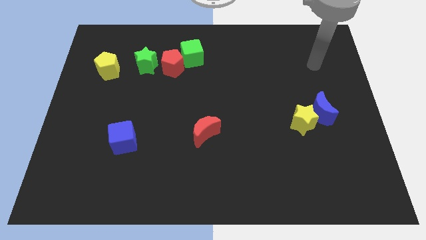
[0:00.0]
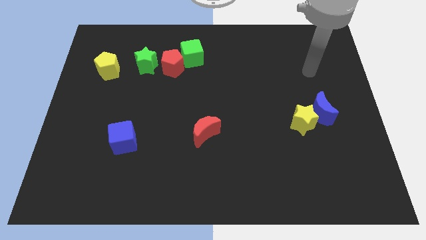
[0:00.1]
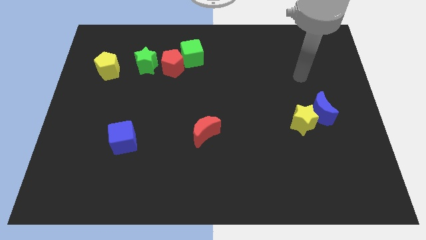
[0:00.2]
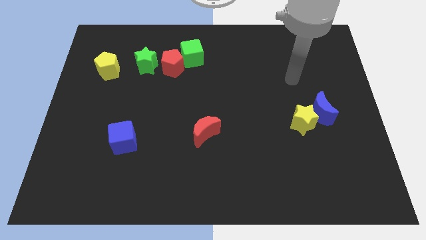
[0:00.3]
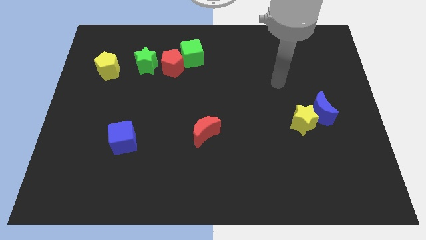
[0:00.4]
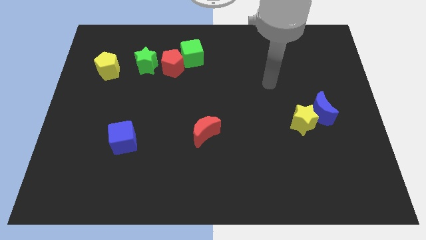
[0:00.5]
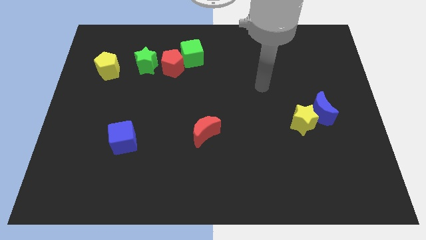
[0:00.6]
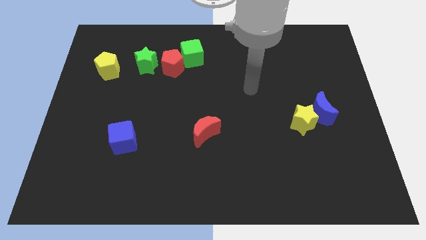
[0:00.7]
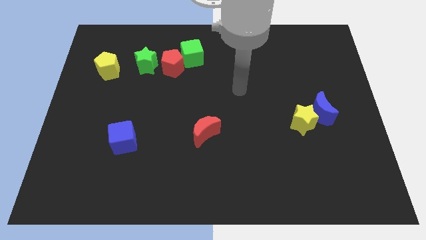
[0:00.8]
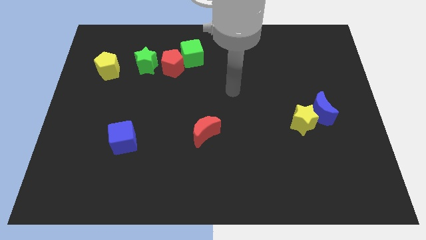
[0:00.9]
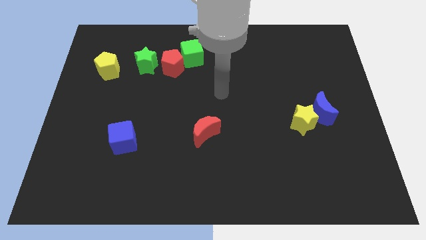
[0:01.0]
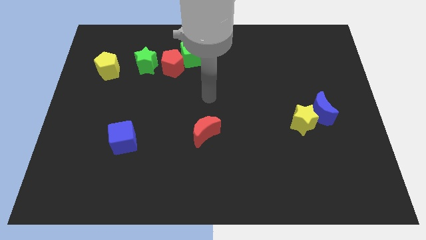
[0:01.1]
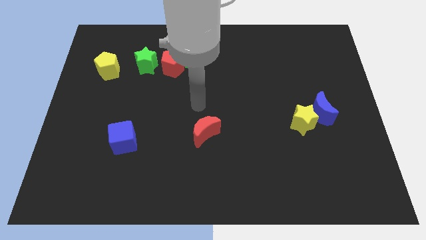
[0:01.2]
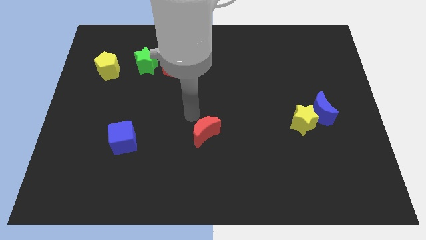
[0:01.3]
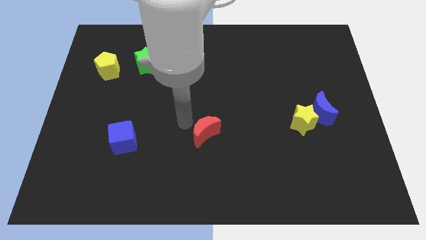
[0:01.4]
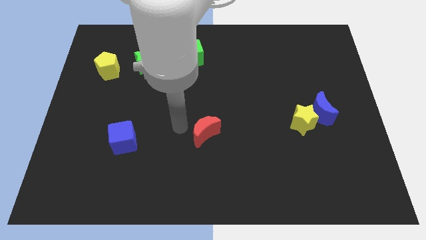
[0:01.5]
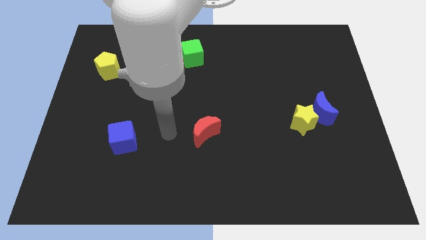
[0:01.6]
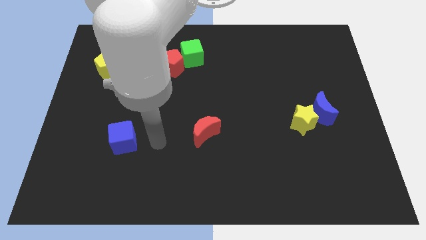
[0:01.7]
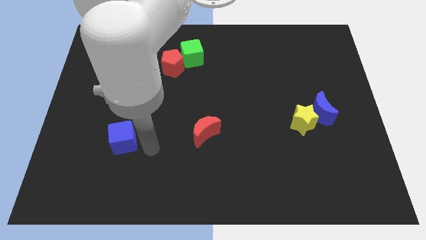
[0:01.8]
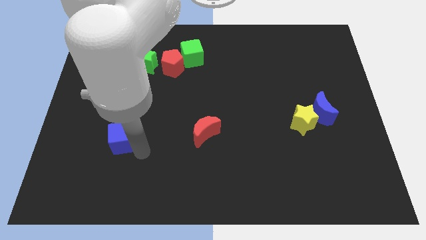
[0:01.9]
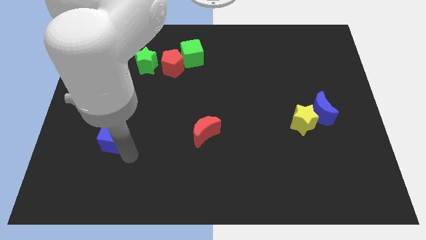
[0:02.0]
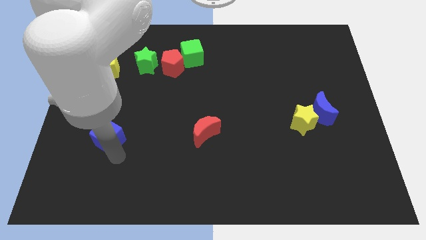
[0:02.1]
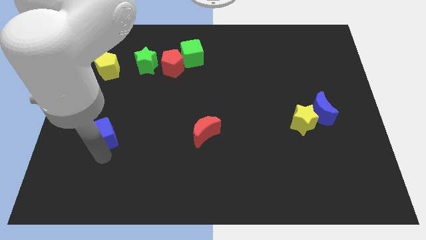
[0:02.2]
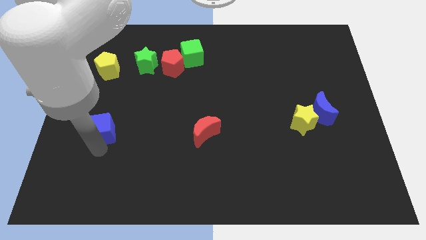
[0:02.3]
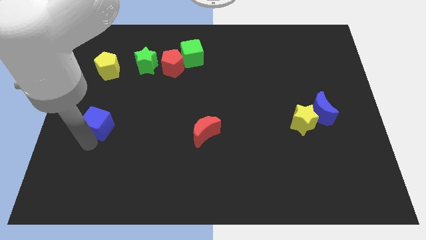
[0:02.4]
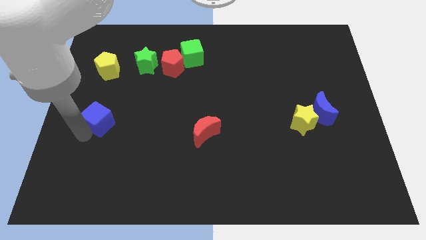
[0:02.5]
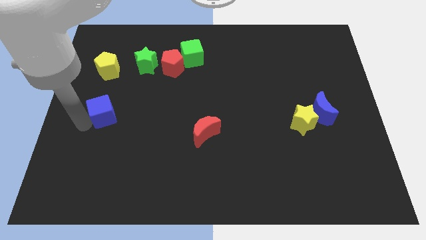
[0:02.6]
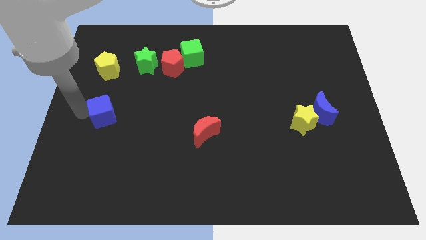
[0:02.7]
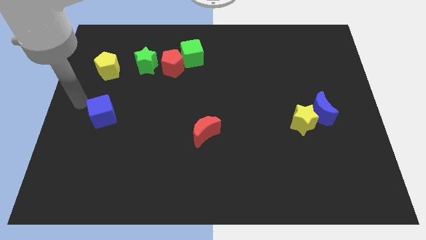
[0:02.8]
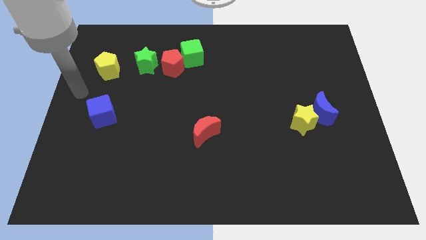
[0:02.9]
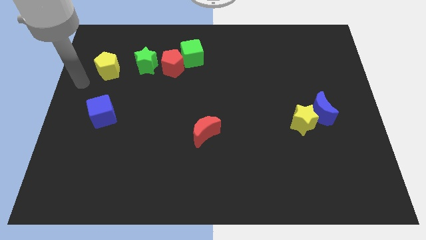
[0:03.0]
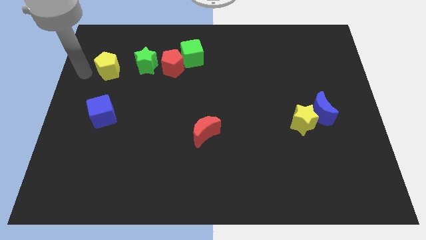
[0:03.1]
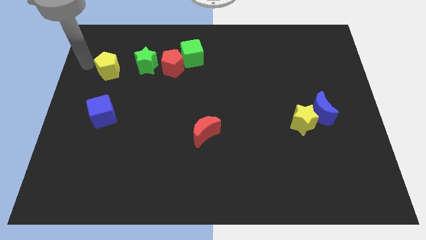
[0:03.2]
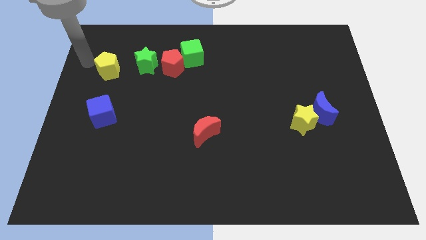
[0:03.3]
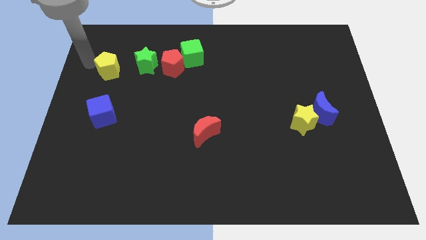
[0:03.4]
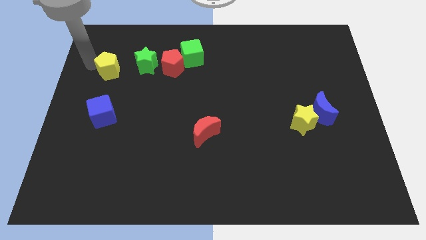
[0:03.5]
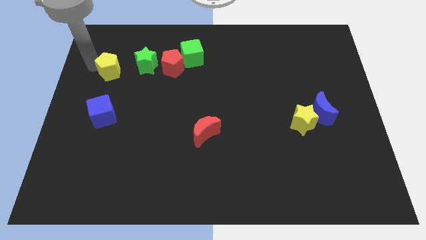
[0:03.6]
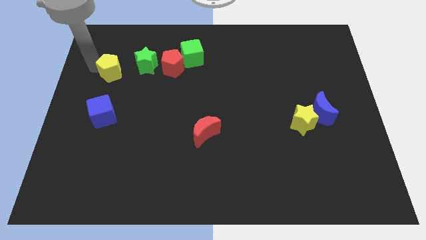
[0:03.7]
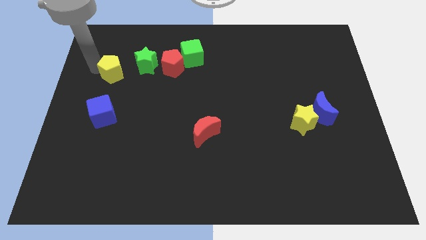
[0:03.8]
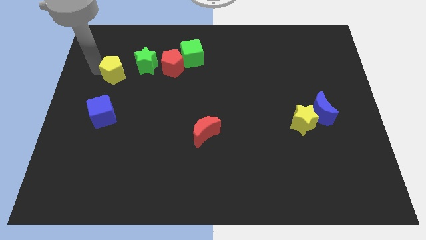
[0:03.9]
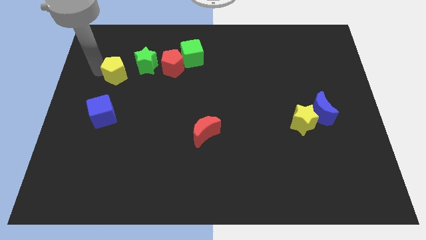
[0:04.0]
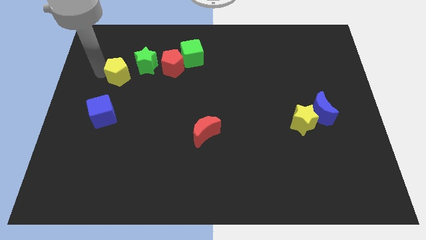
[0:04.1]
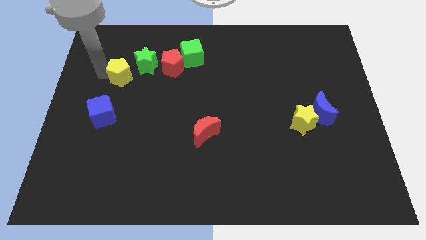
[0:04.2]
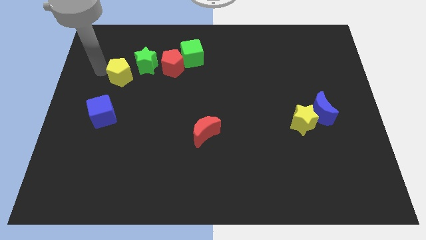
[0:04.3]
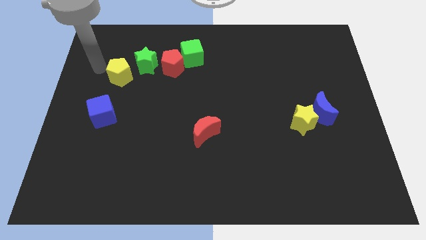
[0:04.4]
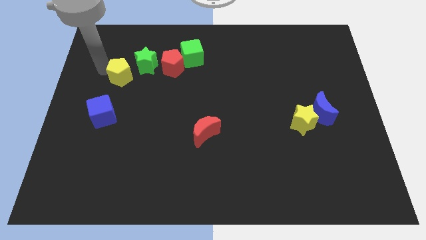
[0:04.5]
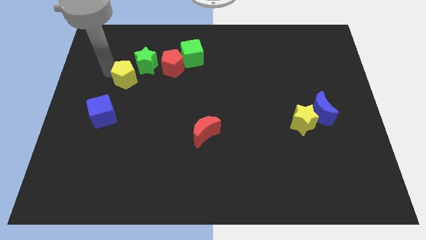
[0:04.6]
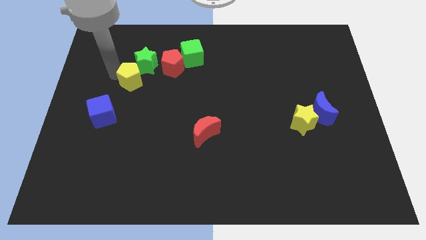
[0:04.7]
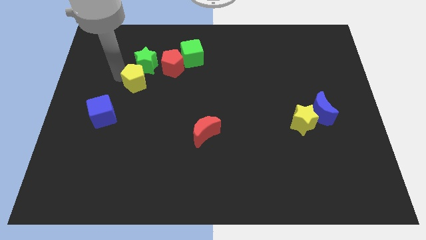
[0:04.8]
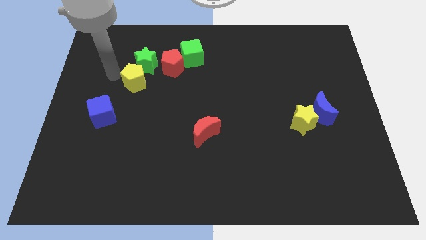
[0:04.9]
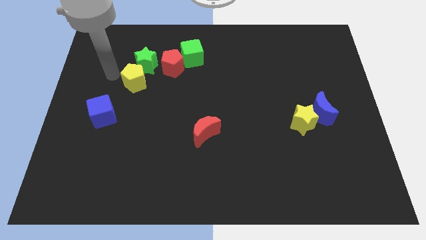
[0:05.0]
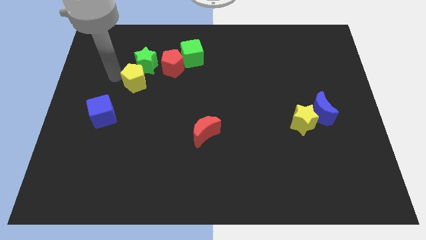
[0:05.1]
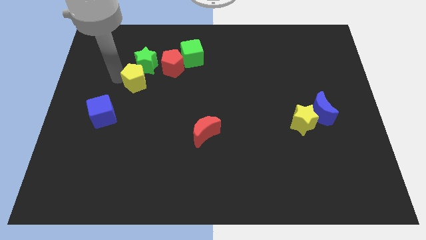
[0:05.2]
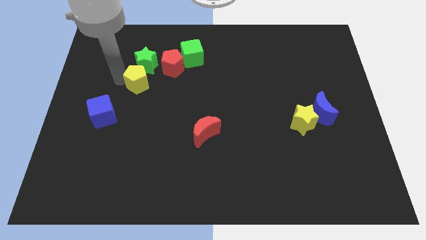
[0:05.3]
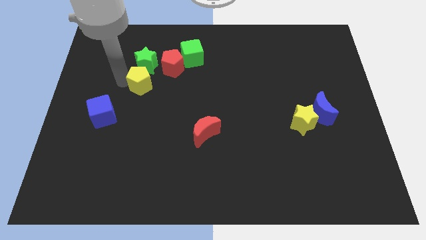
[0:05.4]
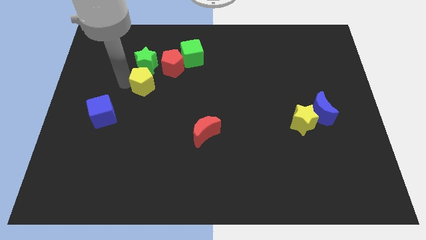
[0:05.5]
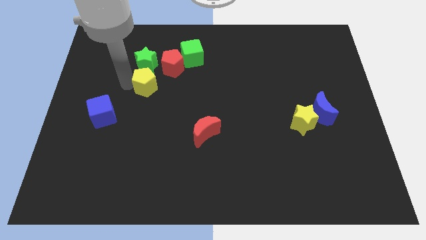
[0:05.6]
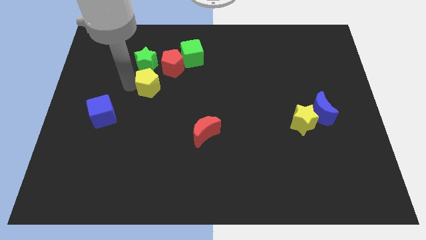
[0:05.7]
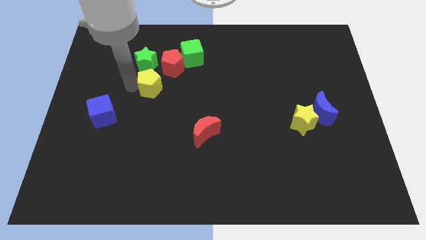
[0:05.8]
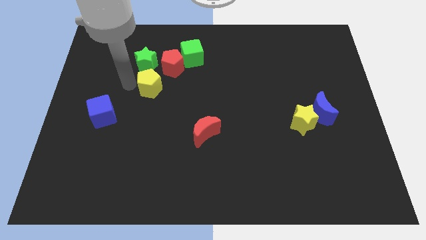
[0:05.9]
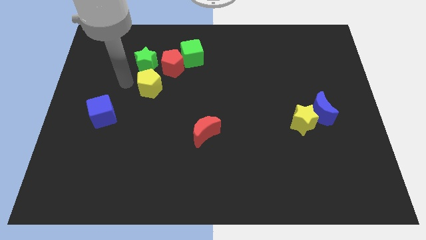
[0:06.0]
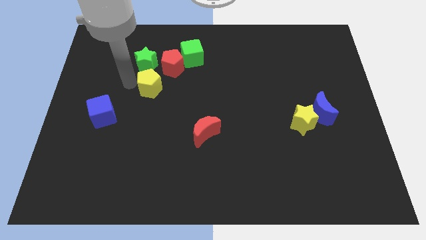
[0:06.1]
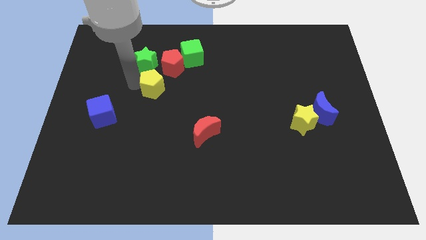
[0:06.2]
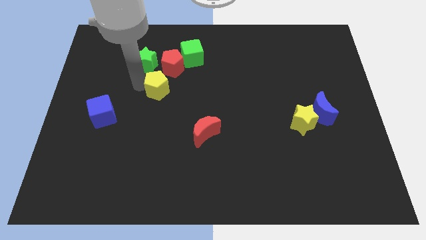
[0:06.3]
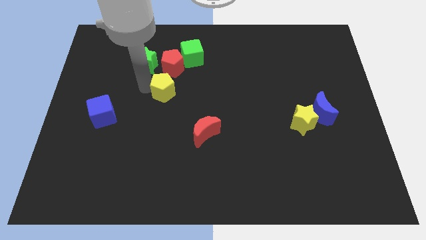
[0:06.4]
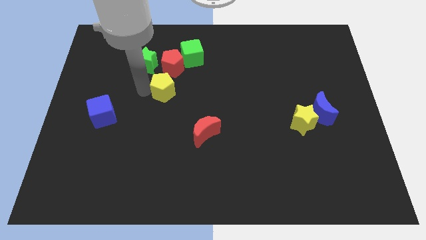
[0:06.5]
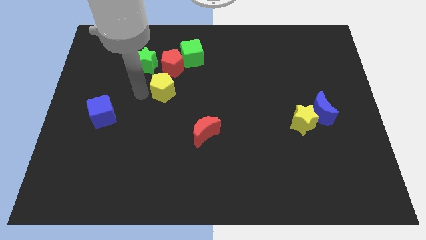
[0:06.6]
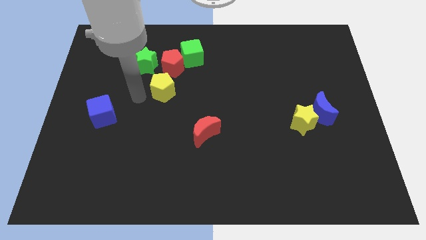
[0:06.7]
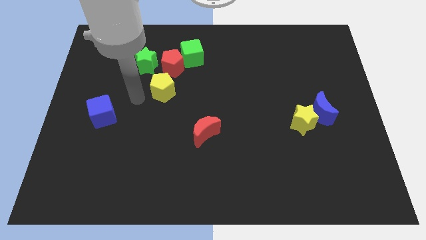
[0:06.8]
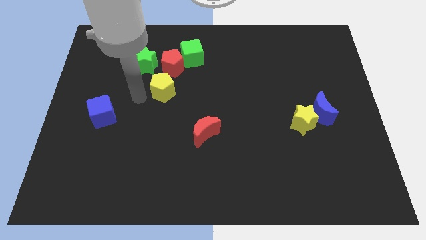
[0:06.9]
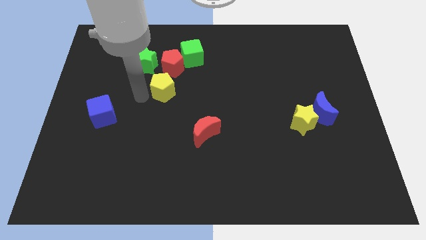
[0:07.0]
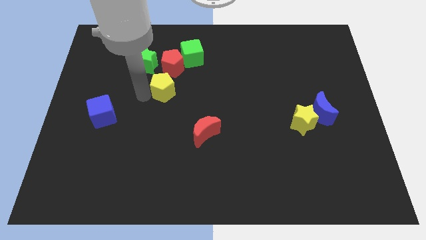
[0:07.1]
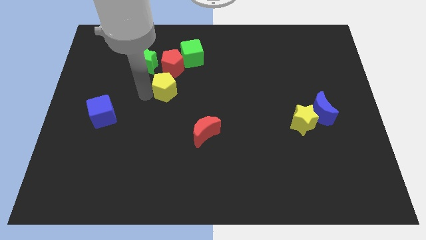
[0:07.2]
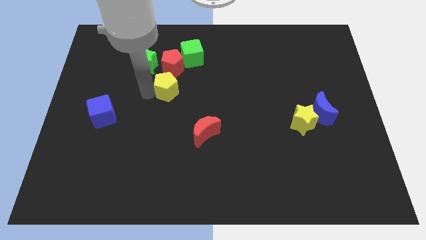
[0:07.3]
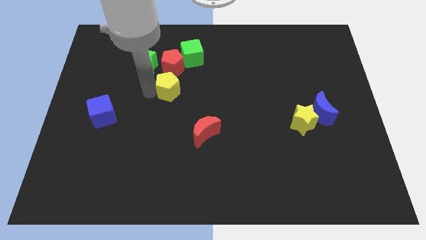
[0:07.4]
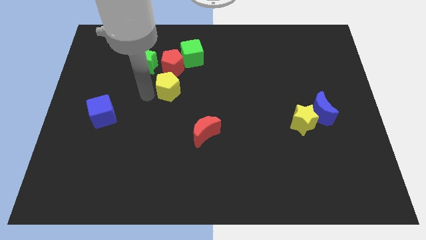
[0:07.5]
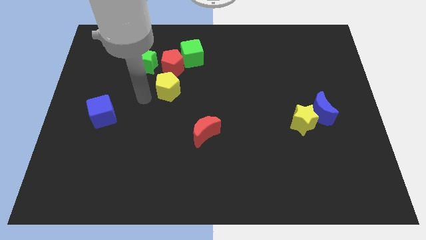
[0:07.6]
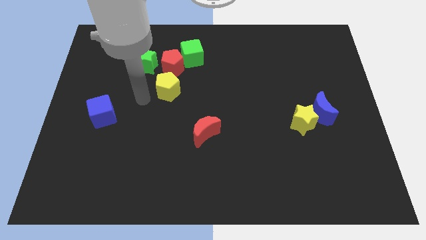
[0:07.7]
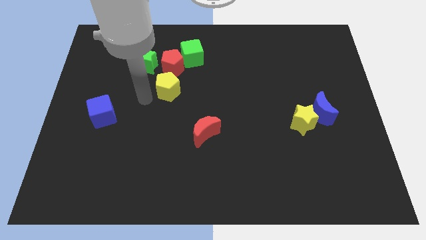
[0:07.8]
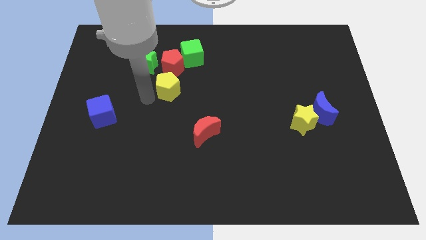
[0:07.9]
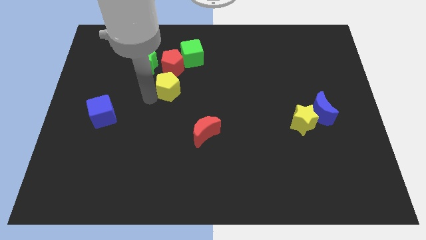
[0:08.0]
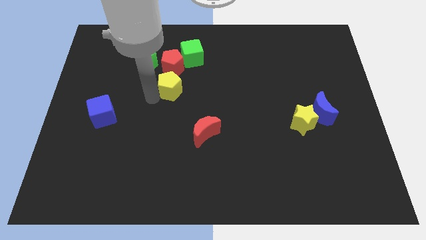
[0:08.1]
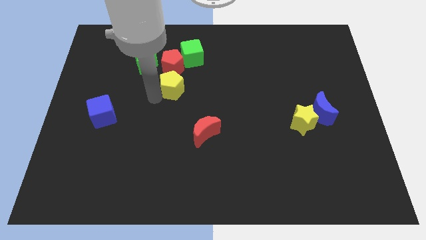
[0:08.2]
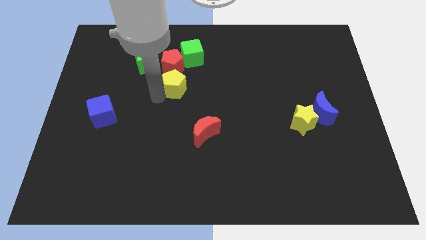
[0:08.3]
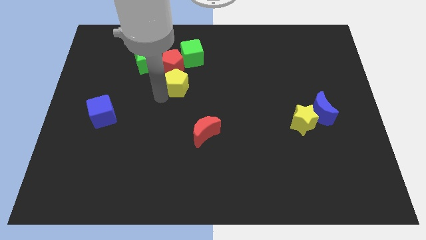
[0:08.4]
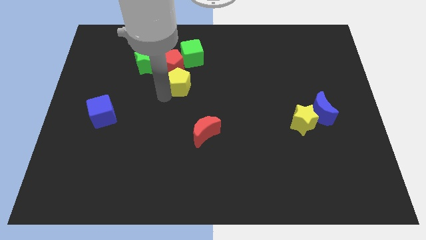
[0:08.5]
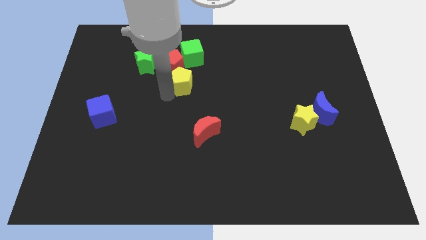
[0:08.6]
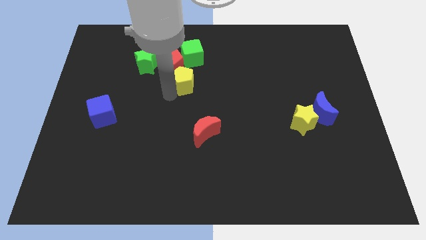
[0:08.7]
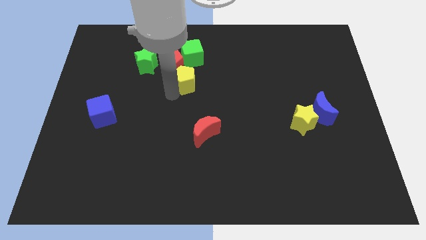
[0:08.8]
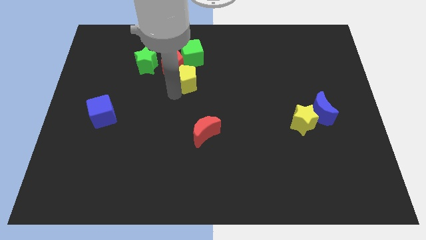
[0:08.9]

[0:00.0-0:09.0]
slide the yellow pentagon right
